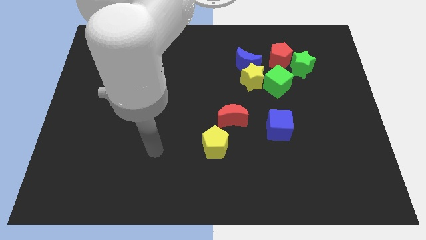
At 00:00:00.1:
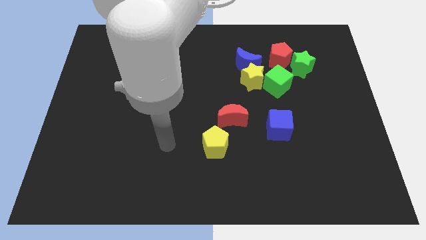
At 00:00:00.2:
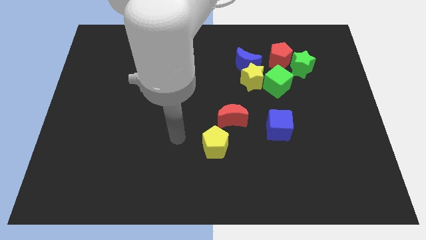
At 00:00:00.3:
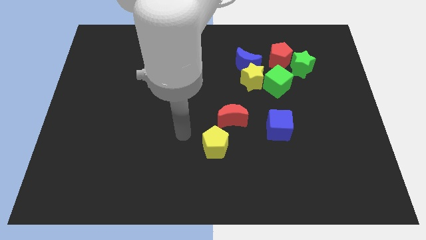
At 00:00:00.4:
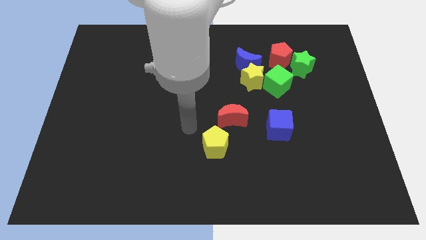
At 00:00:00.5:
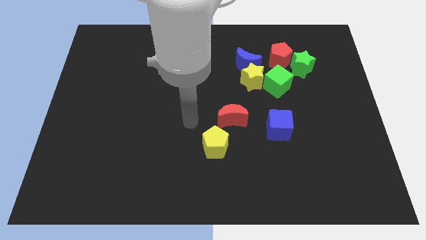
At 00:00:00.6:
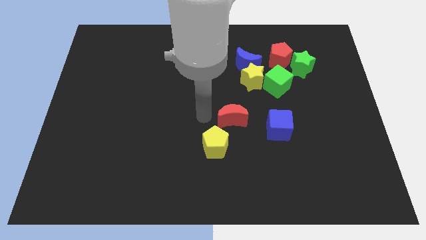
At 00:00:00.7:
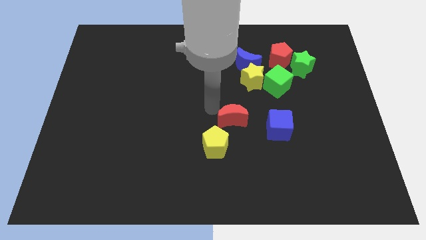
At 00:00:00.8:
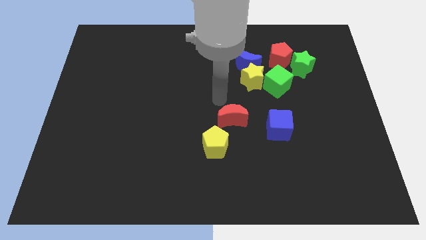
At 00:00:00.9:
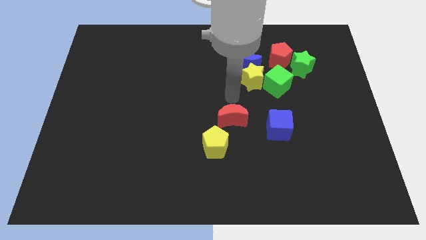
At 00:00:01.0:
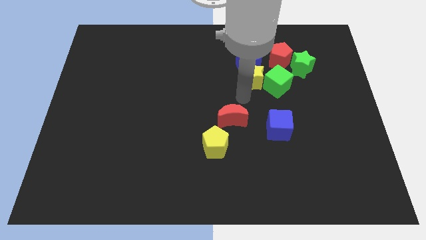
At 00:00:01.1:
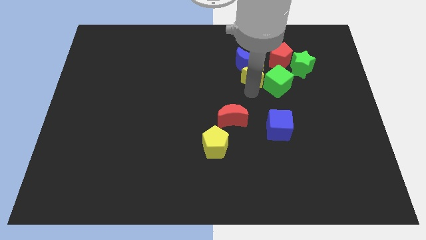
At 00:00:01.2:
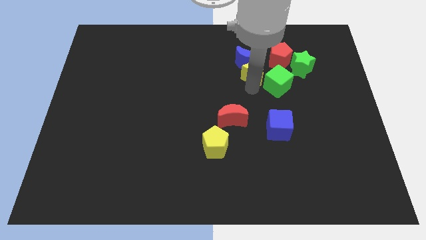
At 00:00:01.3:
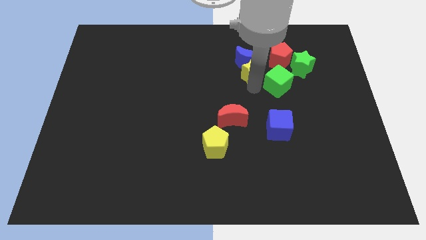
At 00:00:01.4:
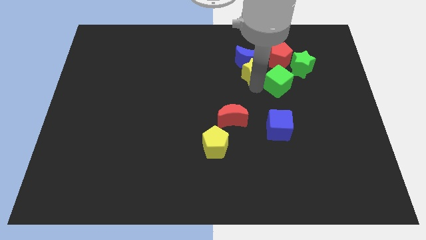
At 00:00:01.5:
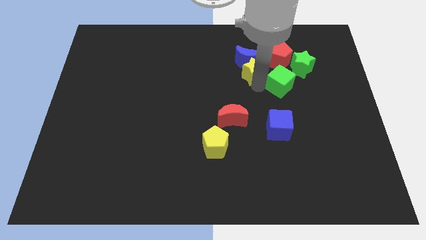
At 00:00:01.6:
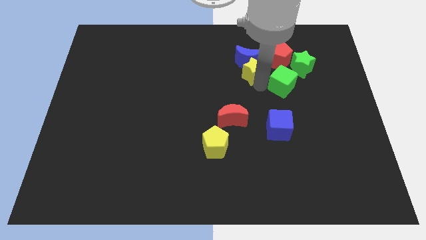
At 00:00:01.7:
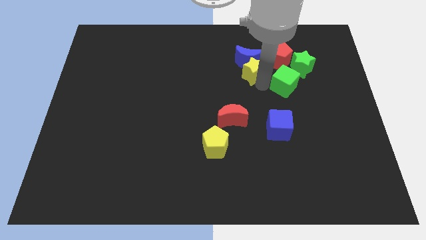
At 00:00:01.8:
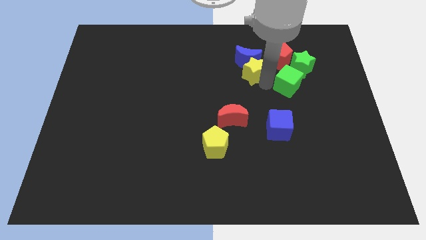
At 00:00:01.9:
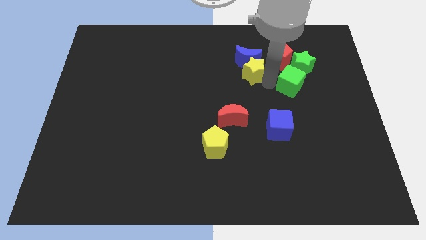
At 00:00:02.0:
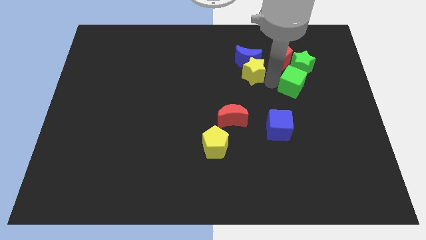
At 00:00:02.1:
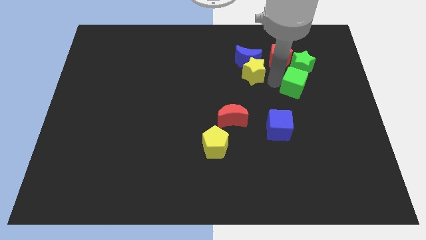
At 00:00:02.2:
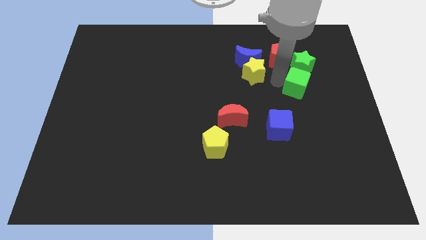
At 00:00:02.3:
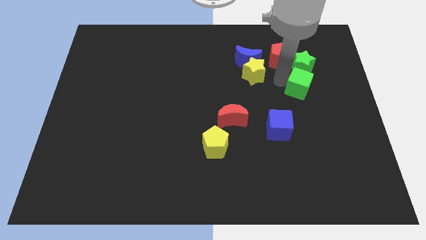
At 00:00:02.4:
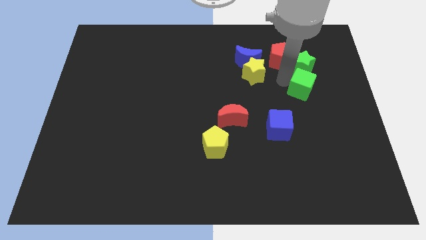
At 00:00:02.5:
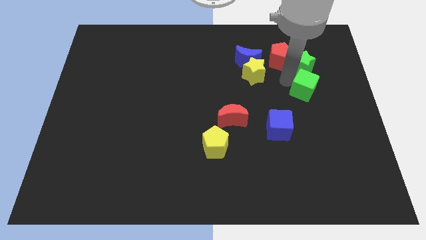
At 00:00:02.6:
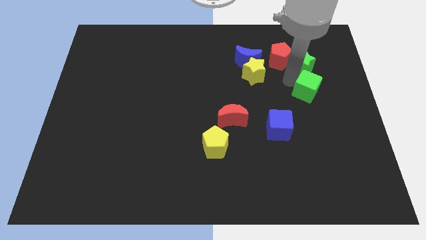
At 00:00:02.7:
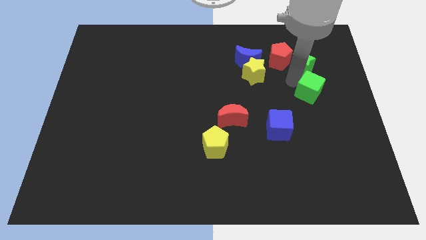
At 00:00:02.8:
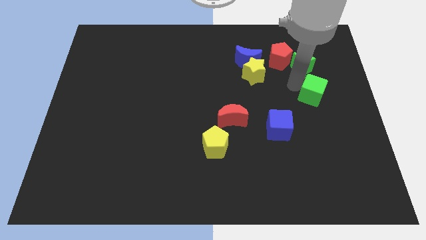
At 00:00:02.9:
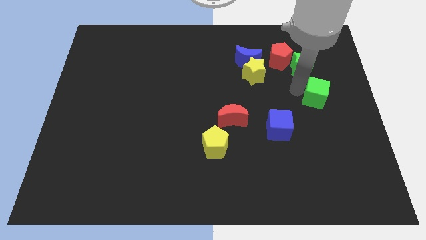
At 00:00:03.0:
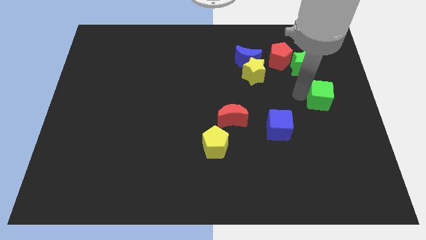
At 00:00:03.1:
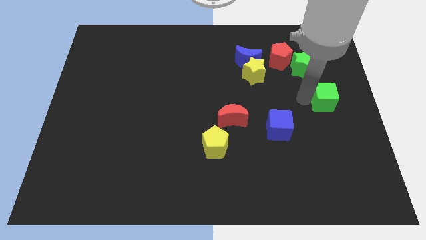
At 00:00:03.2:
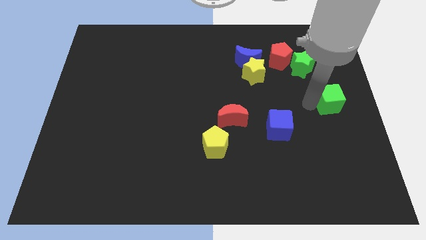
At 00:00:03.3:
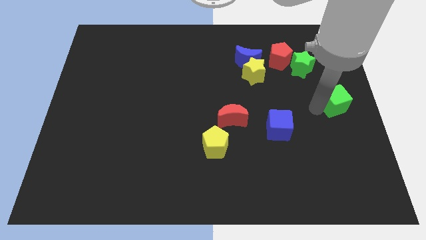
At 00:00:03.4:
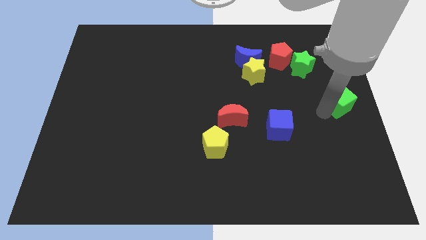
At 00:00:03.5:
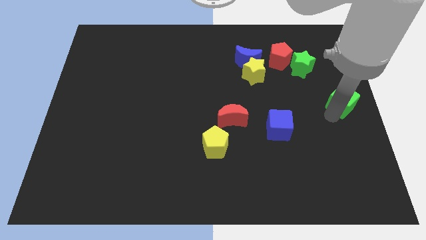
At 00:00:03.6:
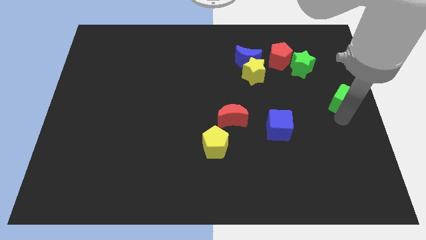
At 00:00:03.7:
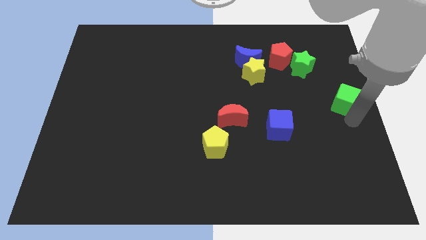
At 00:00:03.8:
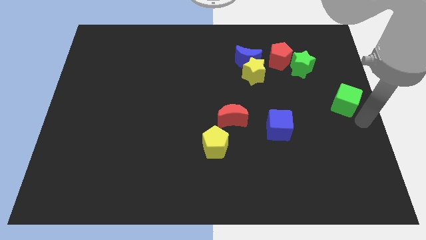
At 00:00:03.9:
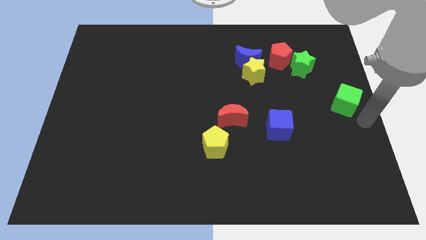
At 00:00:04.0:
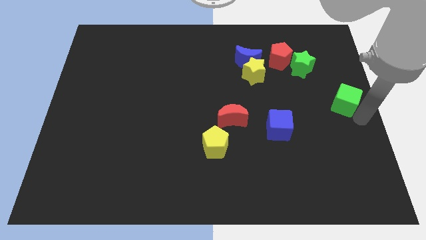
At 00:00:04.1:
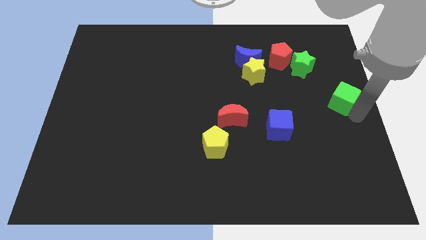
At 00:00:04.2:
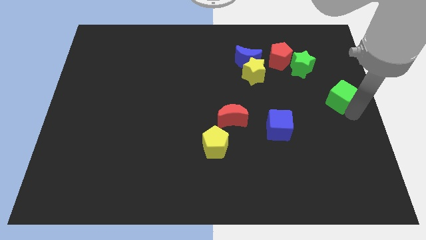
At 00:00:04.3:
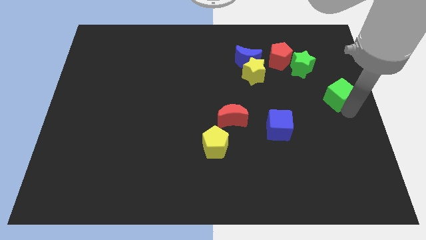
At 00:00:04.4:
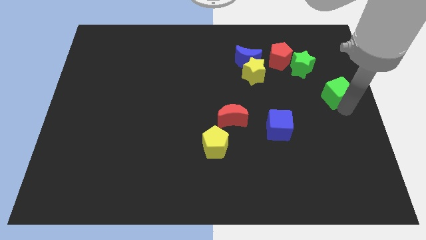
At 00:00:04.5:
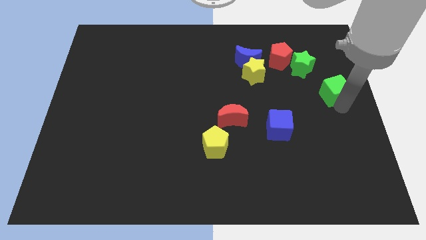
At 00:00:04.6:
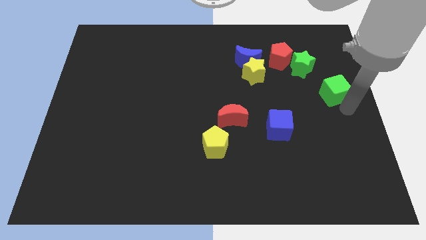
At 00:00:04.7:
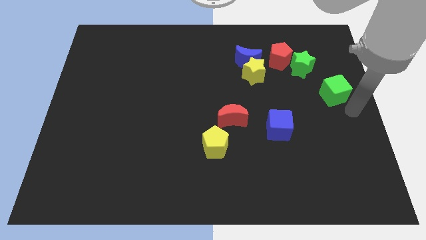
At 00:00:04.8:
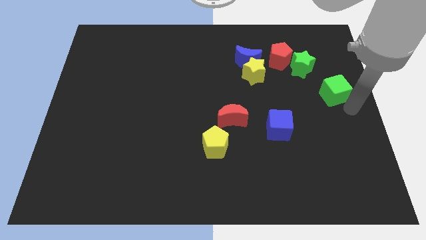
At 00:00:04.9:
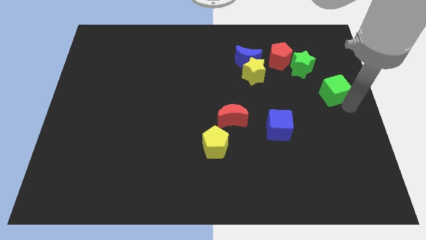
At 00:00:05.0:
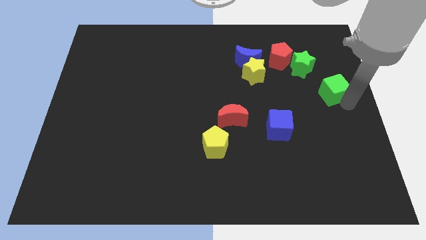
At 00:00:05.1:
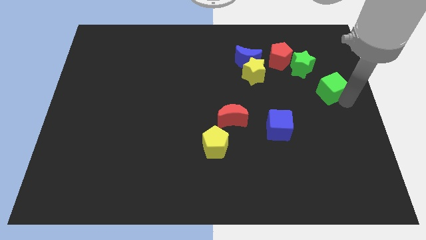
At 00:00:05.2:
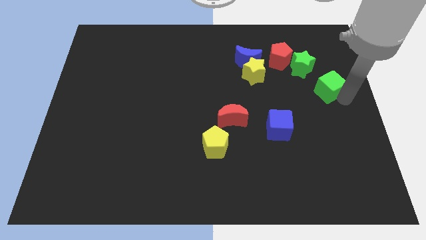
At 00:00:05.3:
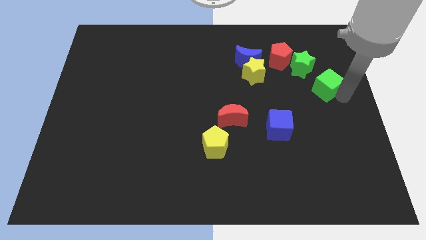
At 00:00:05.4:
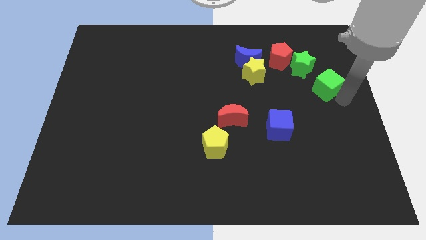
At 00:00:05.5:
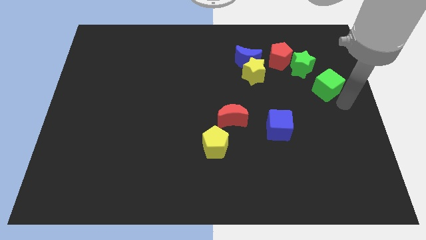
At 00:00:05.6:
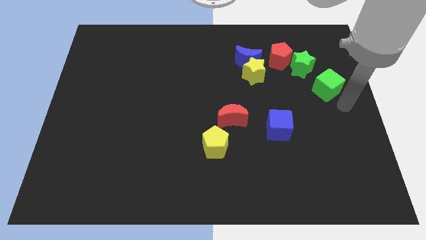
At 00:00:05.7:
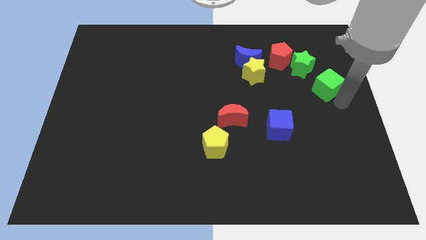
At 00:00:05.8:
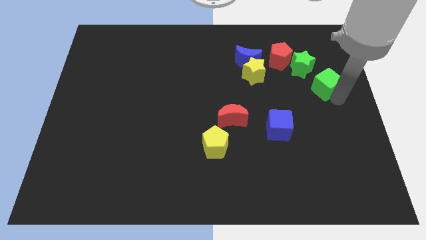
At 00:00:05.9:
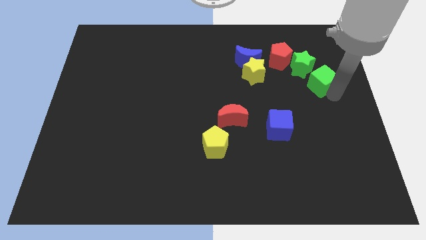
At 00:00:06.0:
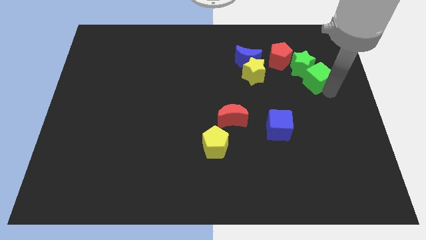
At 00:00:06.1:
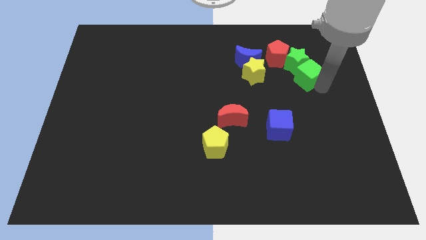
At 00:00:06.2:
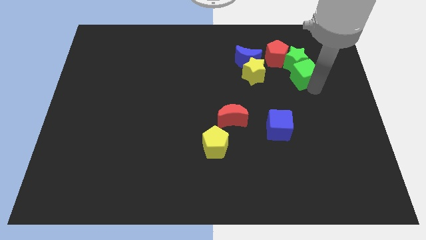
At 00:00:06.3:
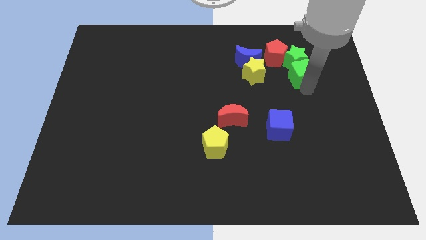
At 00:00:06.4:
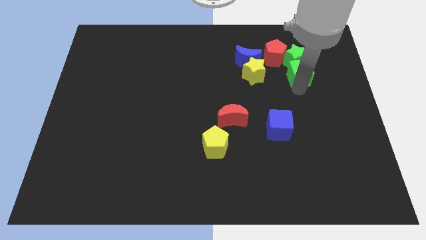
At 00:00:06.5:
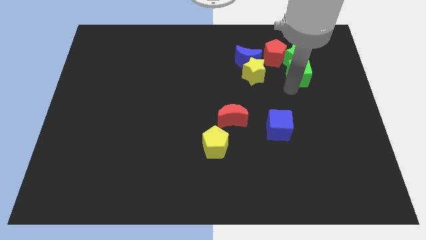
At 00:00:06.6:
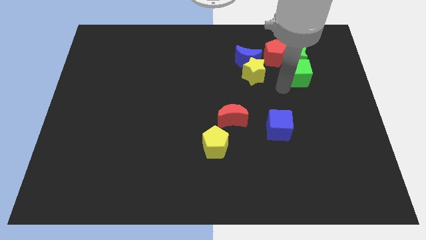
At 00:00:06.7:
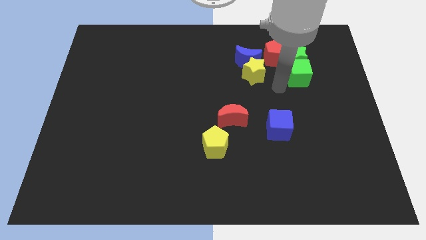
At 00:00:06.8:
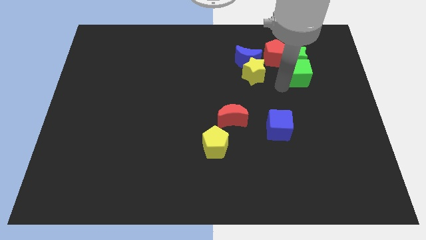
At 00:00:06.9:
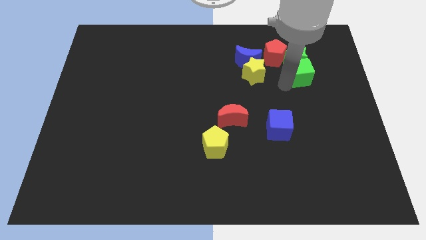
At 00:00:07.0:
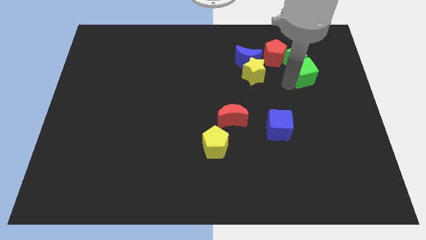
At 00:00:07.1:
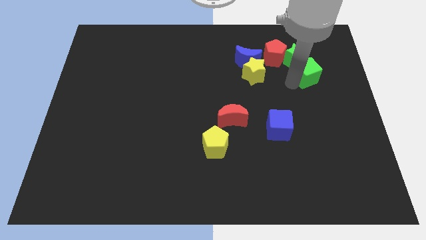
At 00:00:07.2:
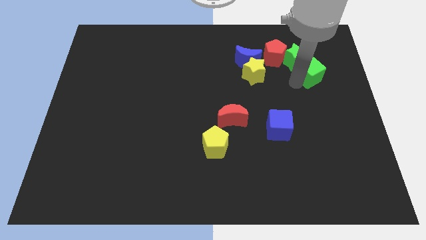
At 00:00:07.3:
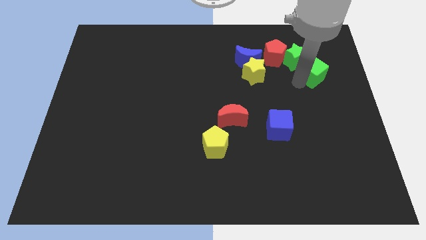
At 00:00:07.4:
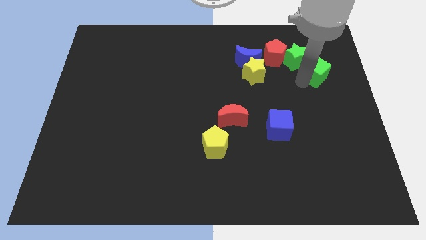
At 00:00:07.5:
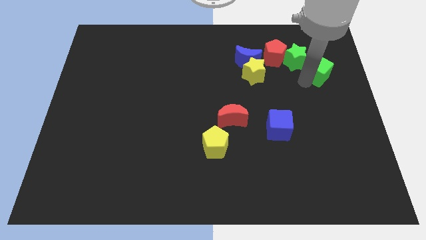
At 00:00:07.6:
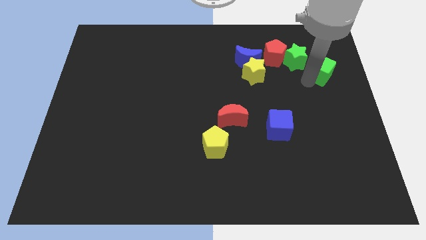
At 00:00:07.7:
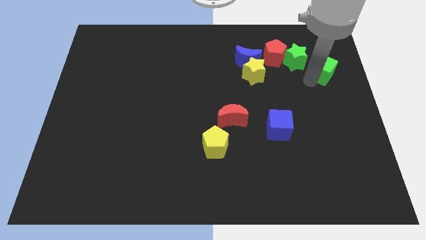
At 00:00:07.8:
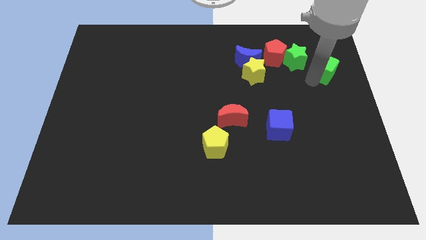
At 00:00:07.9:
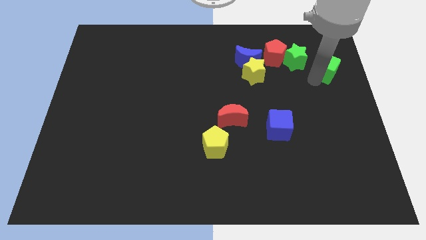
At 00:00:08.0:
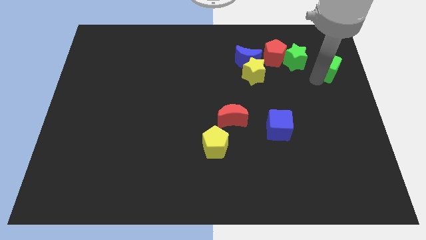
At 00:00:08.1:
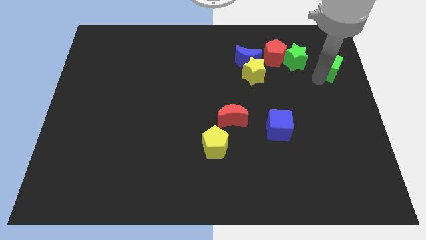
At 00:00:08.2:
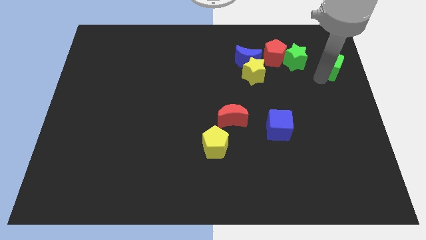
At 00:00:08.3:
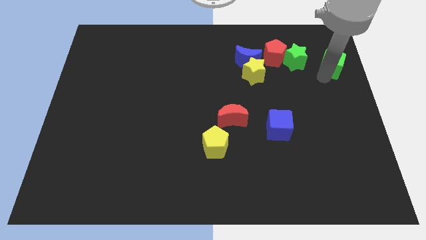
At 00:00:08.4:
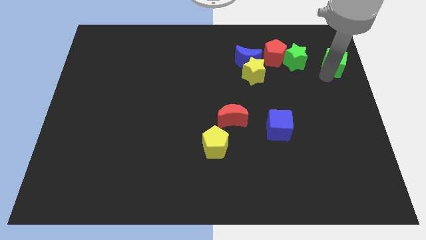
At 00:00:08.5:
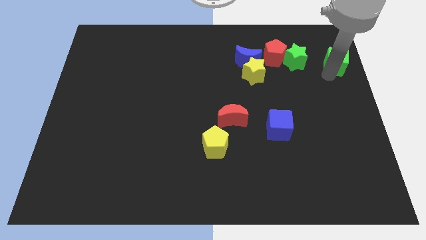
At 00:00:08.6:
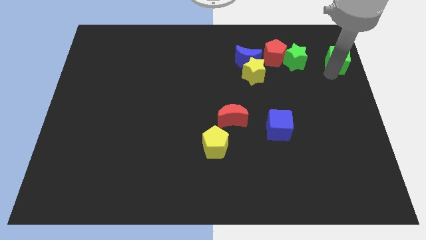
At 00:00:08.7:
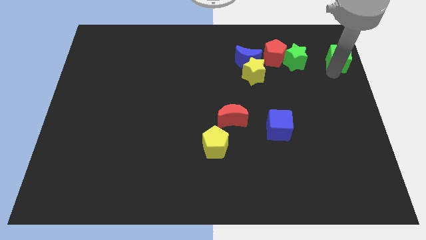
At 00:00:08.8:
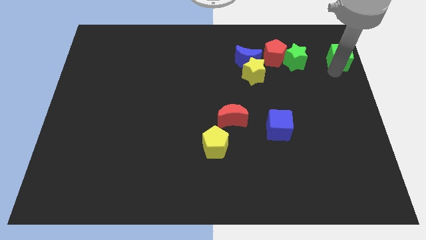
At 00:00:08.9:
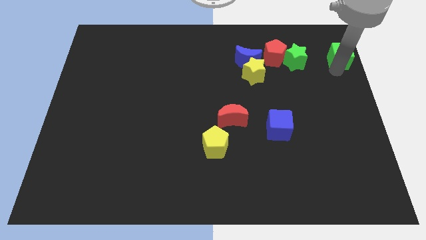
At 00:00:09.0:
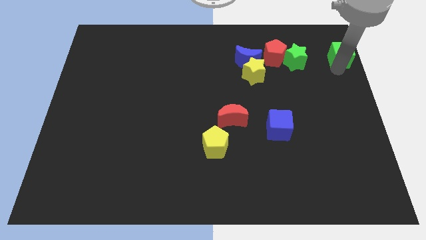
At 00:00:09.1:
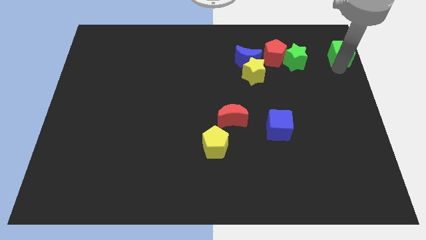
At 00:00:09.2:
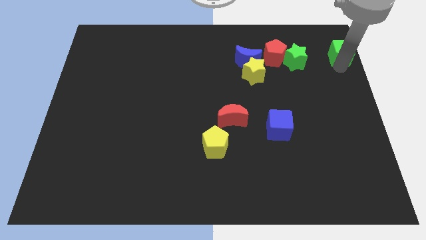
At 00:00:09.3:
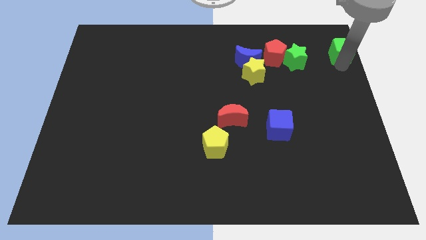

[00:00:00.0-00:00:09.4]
put the green cube to the top right
